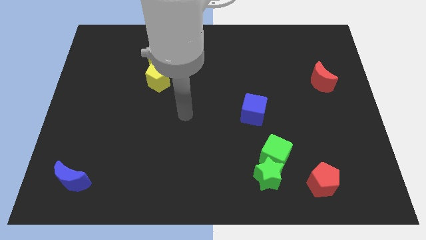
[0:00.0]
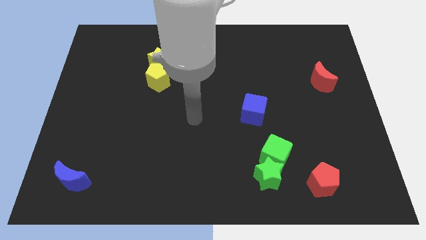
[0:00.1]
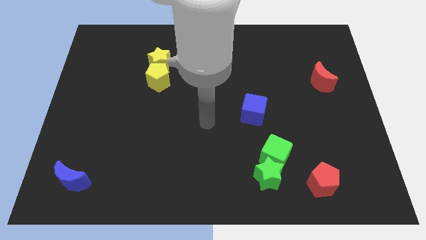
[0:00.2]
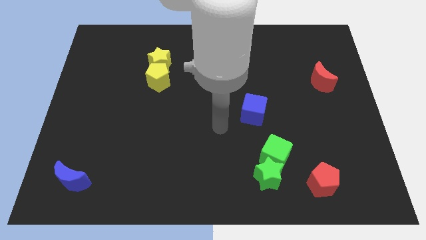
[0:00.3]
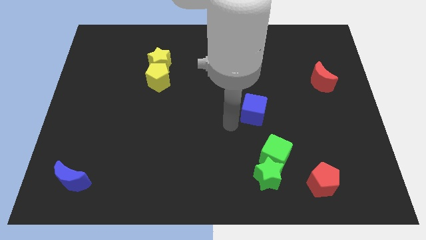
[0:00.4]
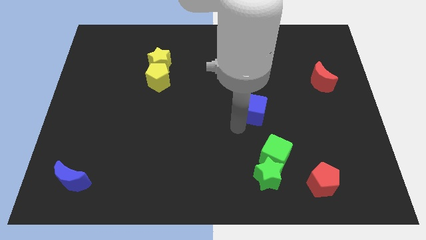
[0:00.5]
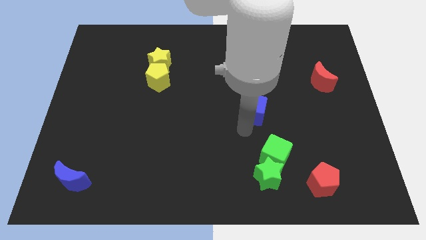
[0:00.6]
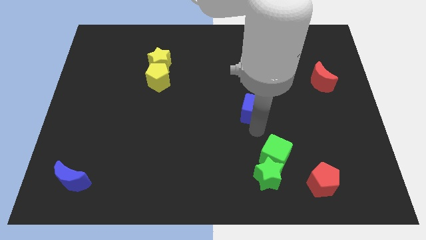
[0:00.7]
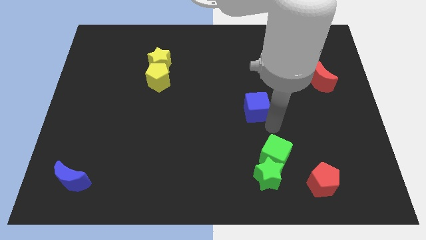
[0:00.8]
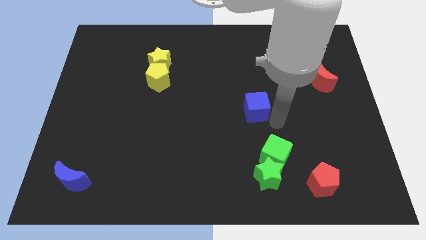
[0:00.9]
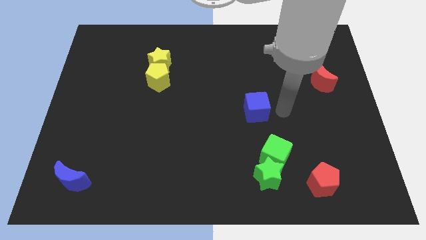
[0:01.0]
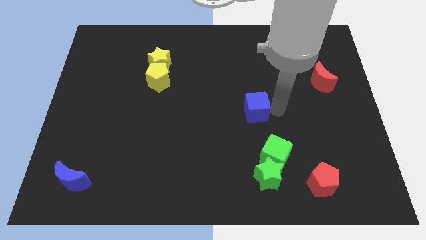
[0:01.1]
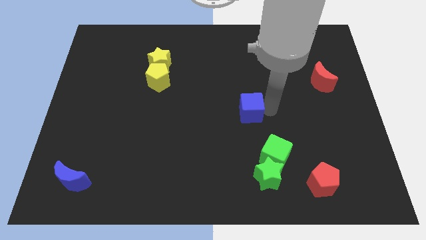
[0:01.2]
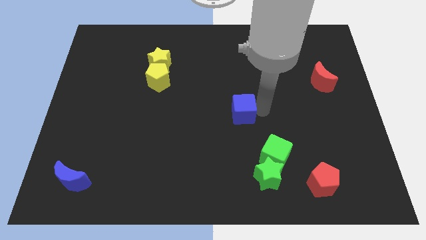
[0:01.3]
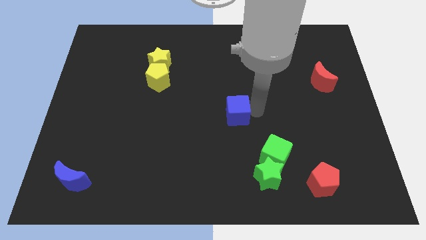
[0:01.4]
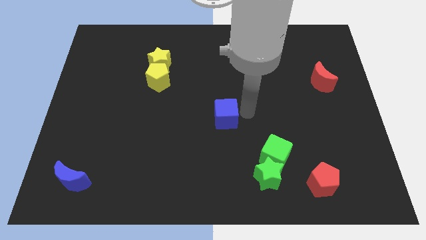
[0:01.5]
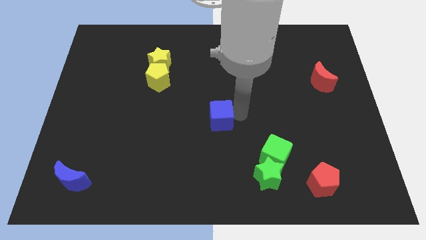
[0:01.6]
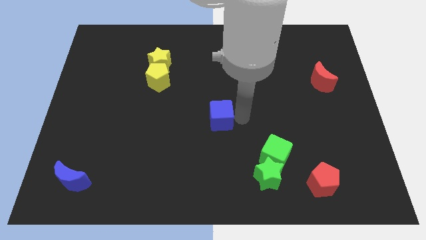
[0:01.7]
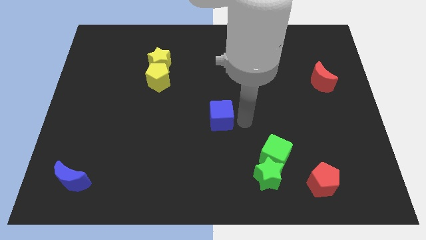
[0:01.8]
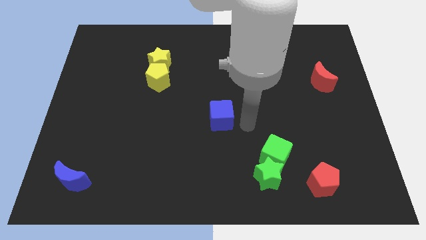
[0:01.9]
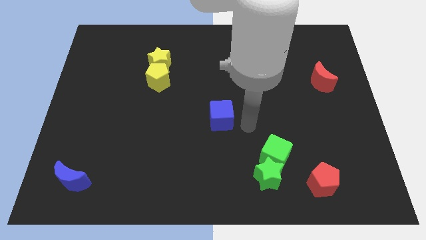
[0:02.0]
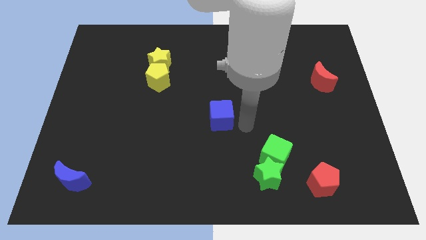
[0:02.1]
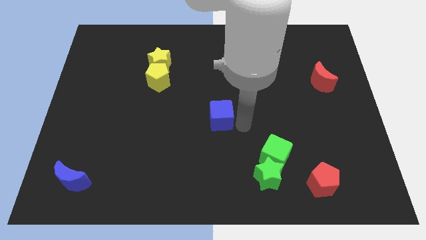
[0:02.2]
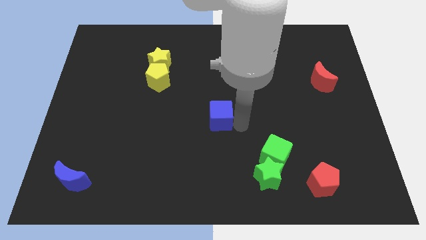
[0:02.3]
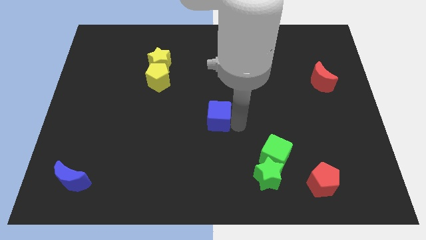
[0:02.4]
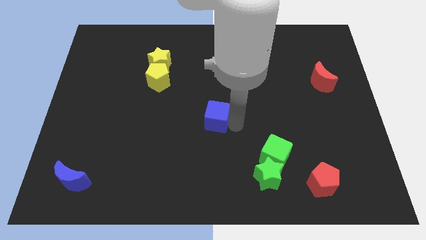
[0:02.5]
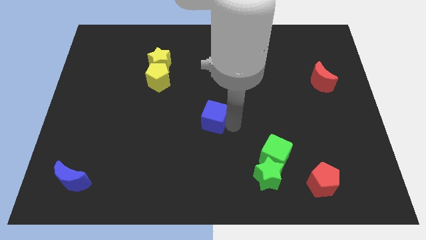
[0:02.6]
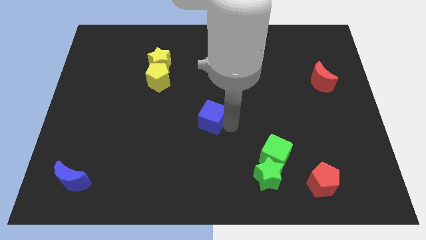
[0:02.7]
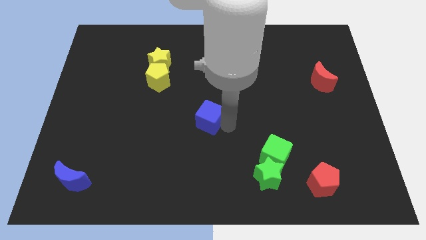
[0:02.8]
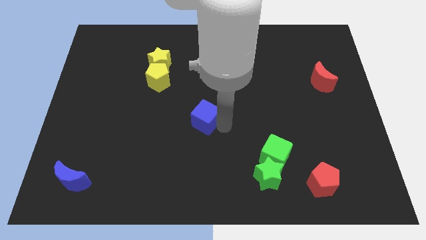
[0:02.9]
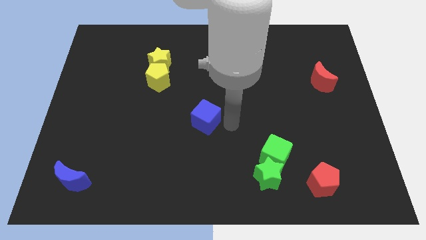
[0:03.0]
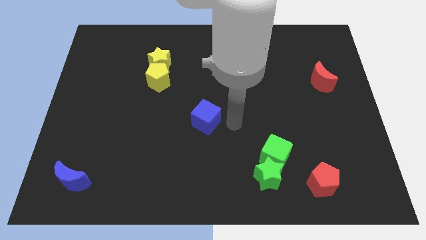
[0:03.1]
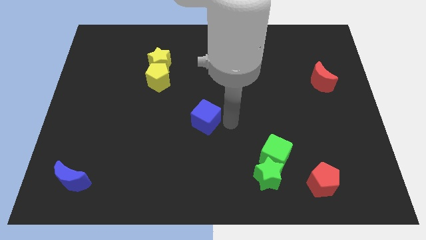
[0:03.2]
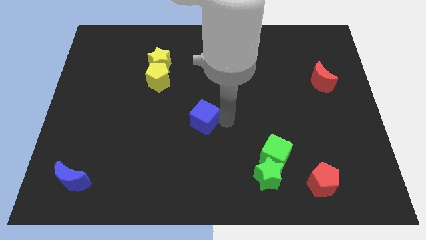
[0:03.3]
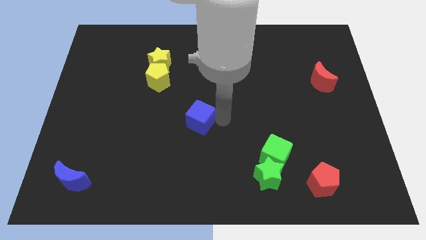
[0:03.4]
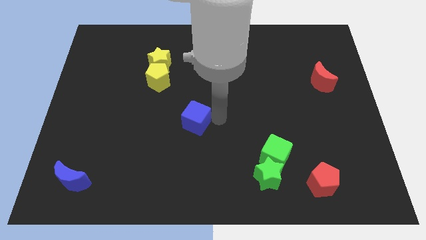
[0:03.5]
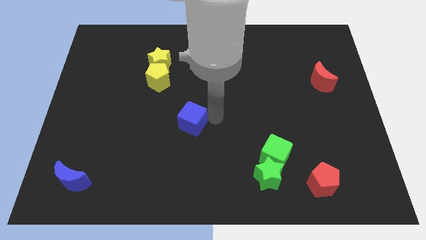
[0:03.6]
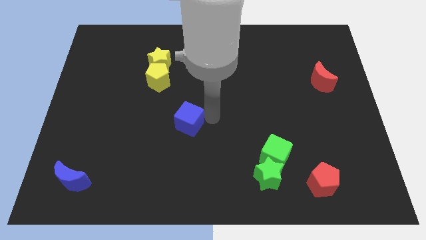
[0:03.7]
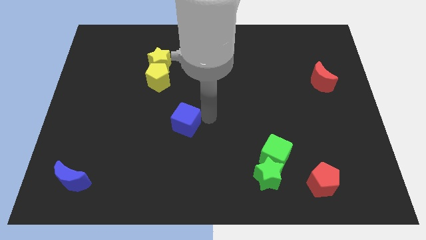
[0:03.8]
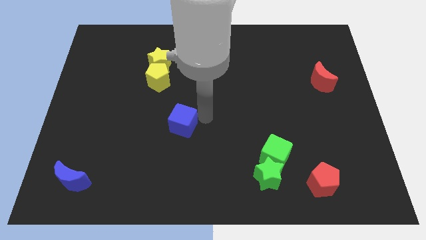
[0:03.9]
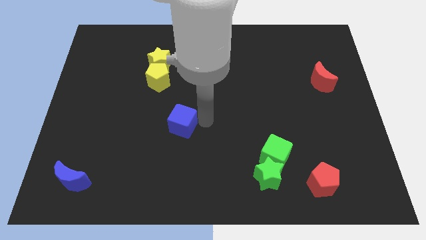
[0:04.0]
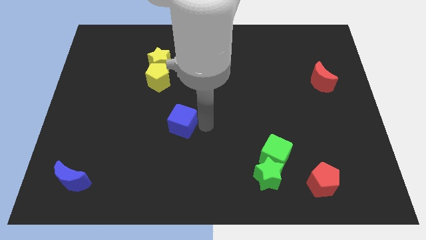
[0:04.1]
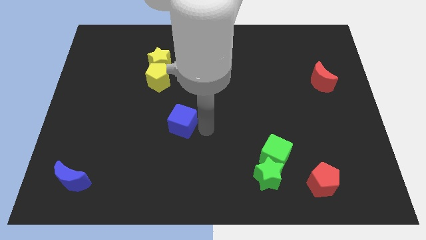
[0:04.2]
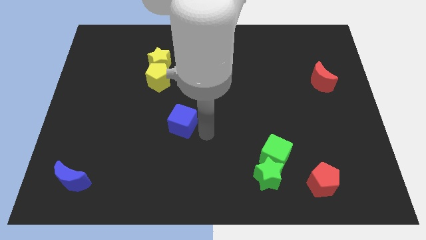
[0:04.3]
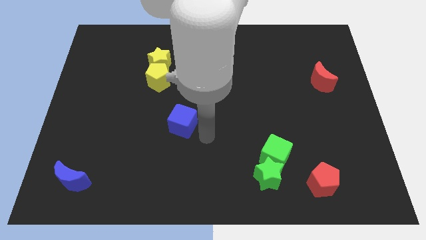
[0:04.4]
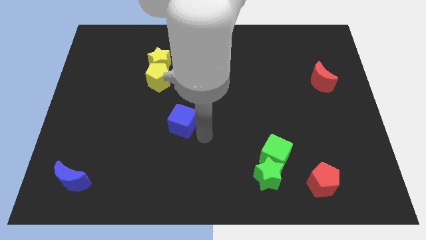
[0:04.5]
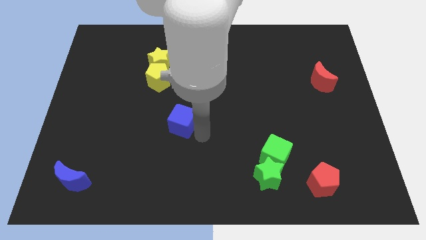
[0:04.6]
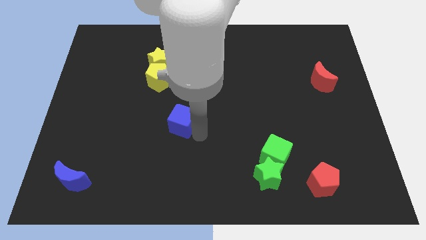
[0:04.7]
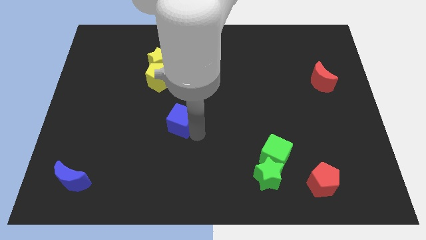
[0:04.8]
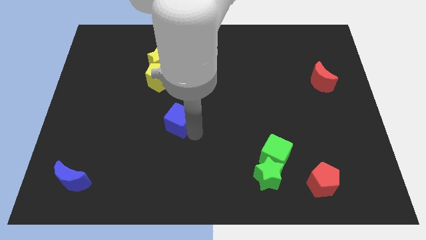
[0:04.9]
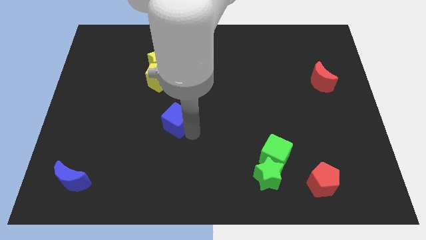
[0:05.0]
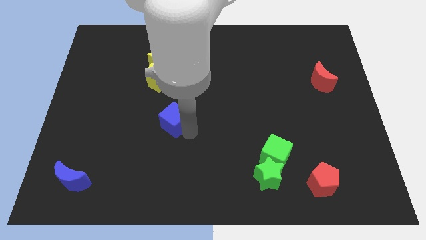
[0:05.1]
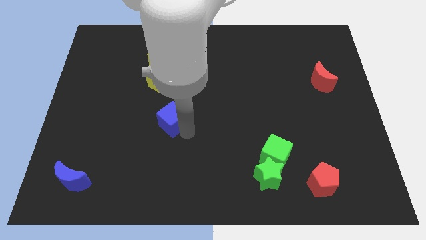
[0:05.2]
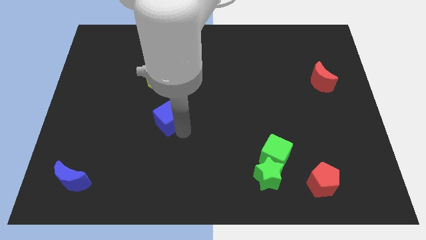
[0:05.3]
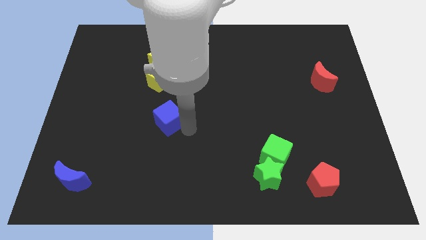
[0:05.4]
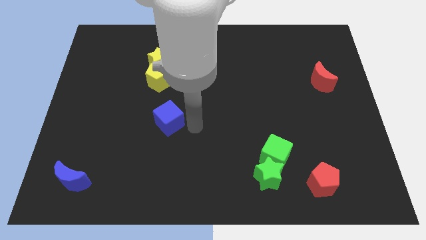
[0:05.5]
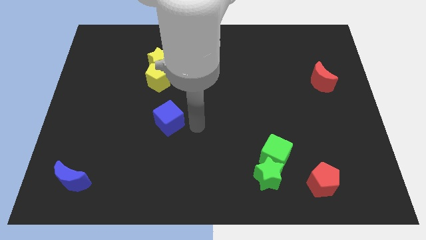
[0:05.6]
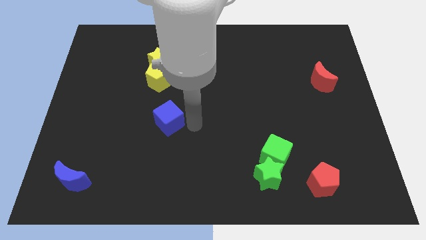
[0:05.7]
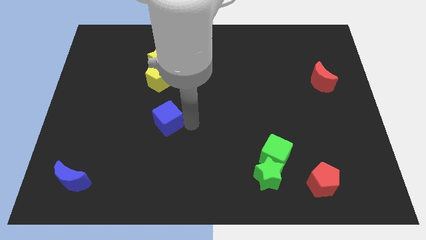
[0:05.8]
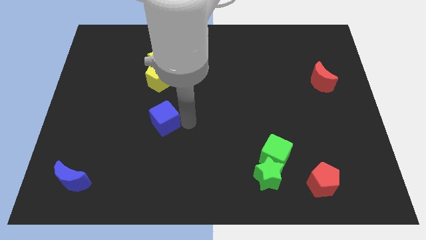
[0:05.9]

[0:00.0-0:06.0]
push the blue cube to the left

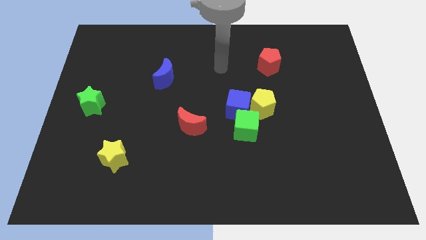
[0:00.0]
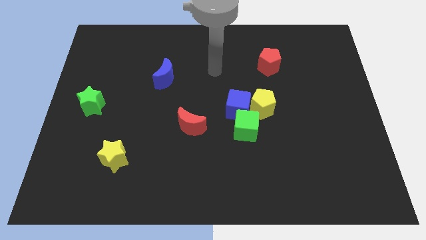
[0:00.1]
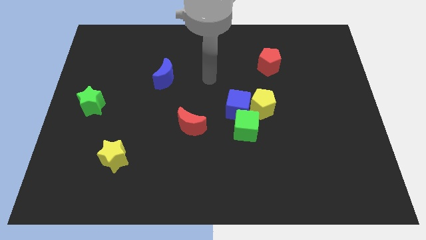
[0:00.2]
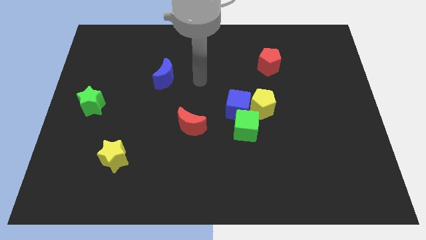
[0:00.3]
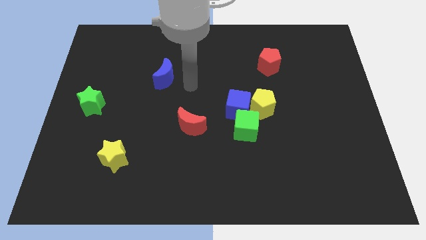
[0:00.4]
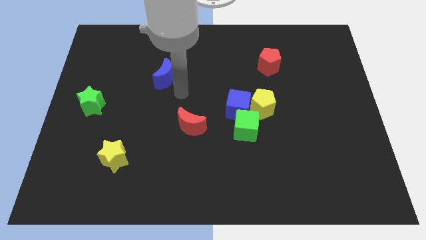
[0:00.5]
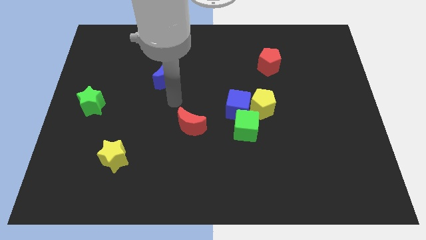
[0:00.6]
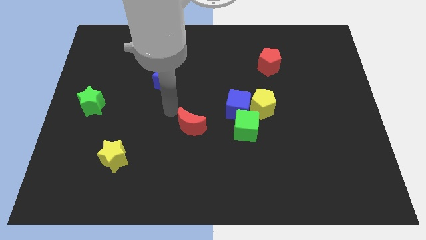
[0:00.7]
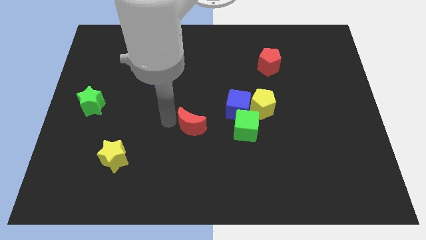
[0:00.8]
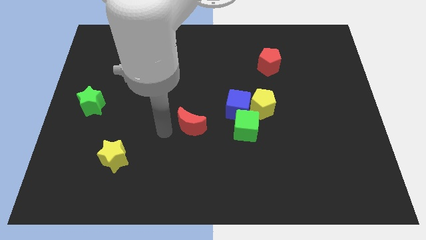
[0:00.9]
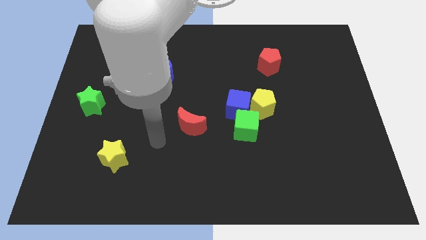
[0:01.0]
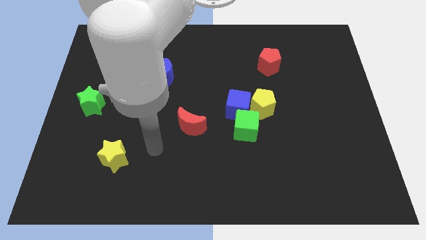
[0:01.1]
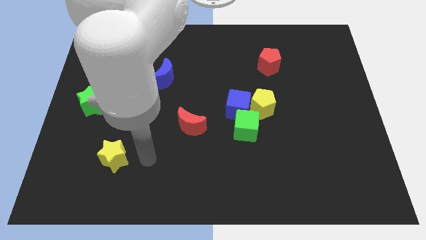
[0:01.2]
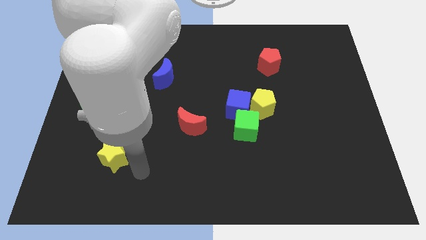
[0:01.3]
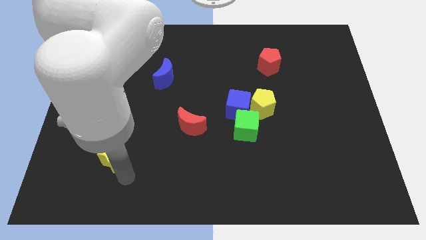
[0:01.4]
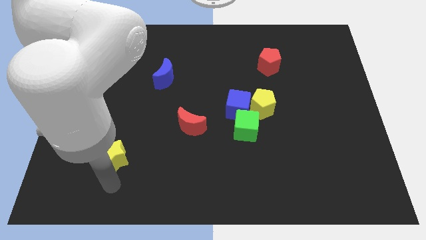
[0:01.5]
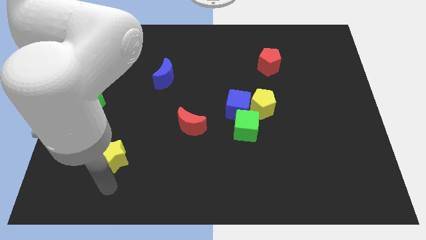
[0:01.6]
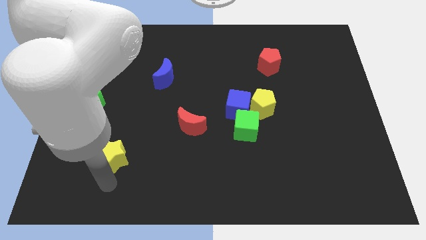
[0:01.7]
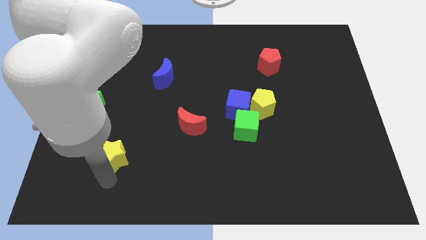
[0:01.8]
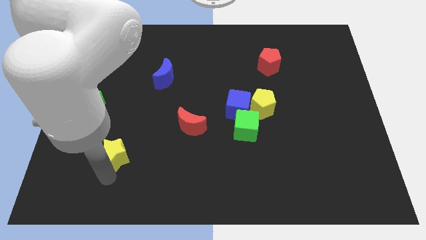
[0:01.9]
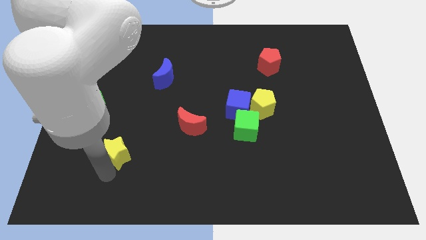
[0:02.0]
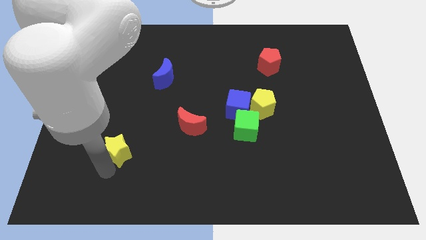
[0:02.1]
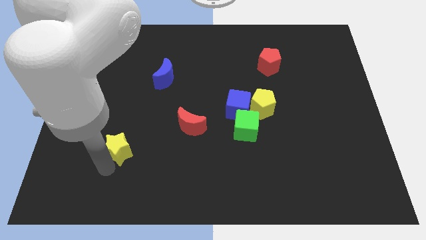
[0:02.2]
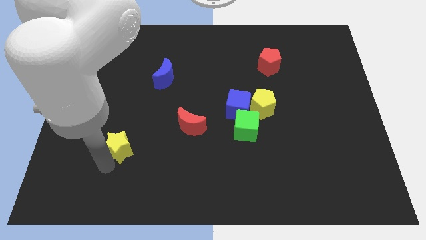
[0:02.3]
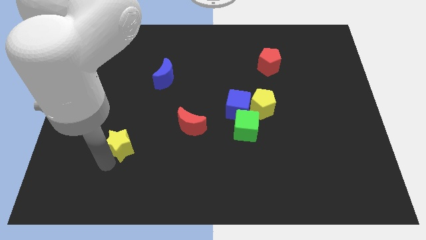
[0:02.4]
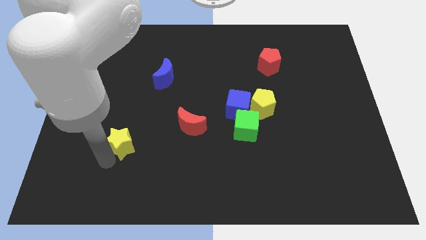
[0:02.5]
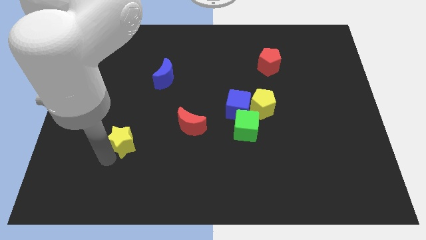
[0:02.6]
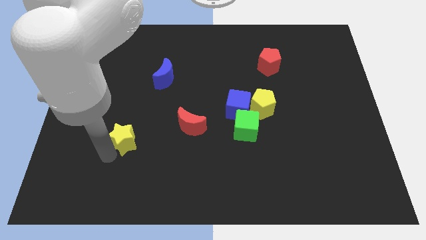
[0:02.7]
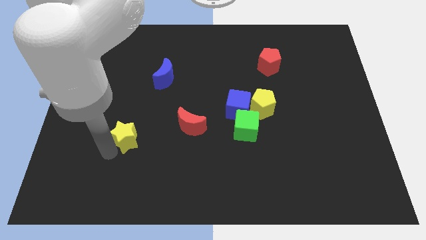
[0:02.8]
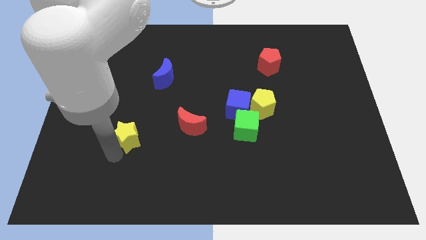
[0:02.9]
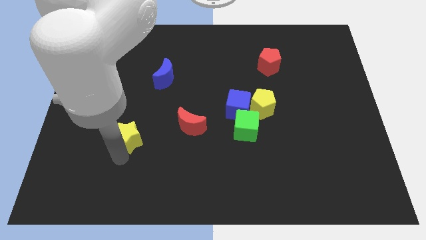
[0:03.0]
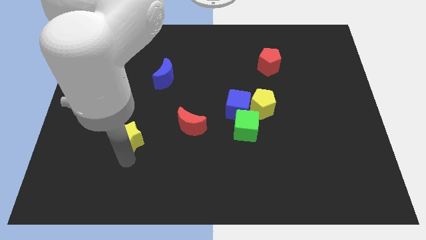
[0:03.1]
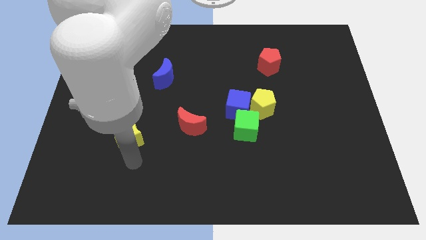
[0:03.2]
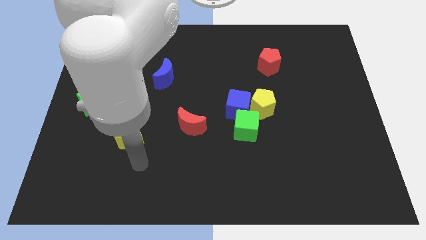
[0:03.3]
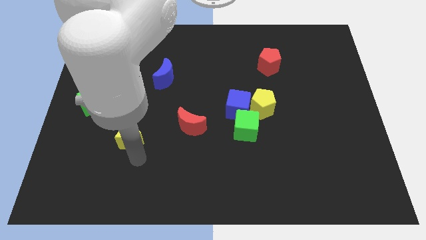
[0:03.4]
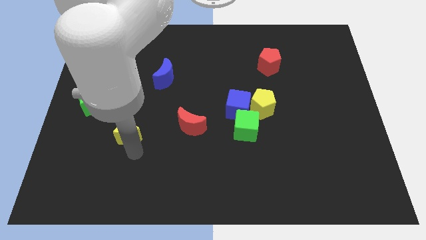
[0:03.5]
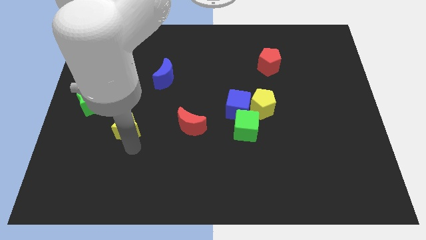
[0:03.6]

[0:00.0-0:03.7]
push the yellow star somewhat upwards
